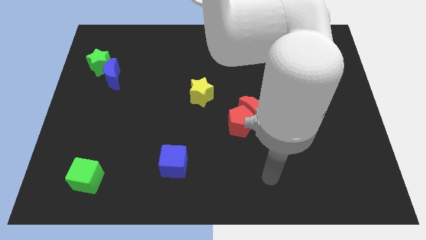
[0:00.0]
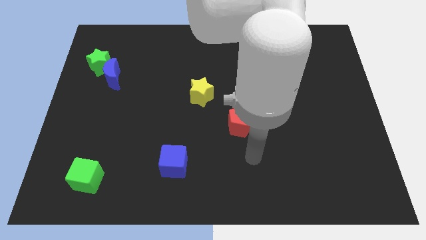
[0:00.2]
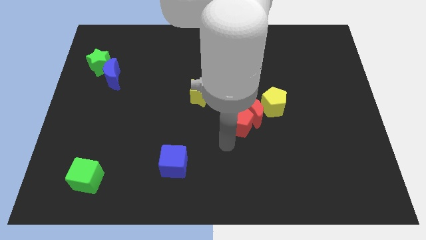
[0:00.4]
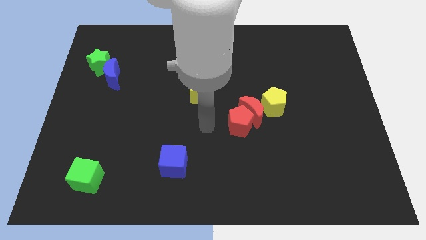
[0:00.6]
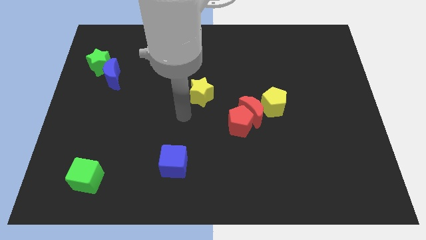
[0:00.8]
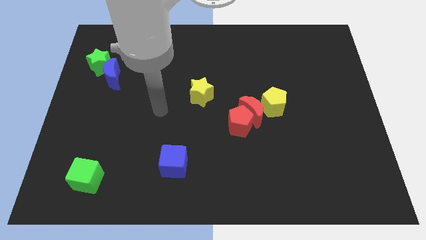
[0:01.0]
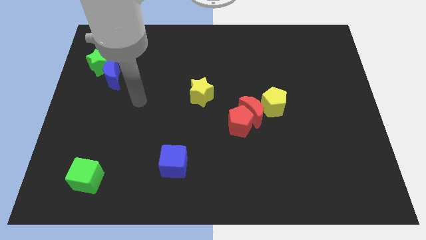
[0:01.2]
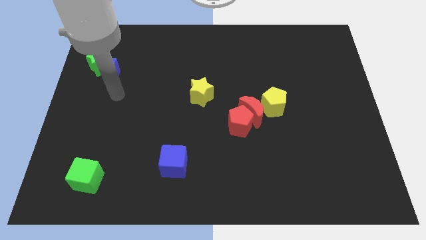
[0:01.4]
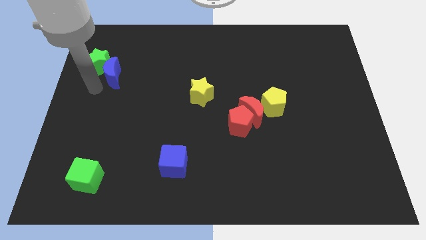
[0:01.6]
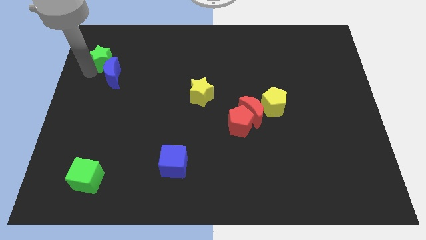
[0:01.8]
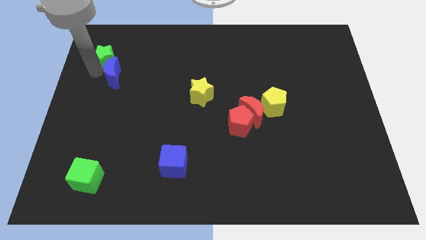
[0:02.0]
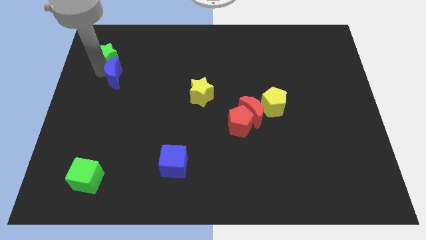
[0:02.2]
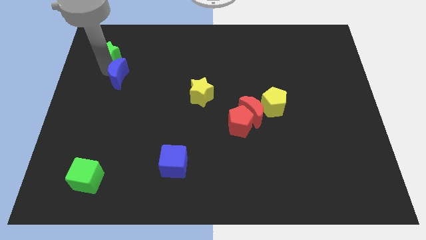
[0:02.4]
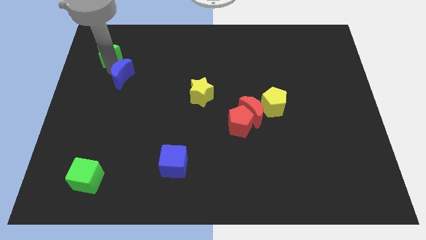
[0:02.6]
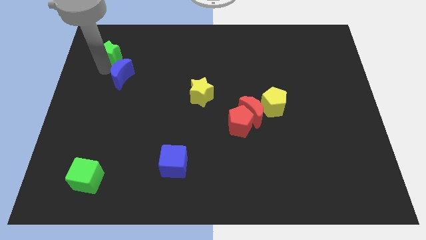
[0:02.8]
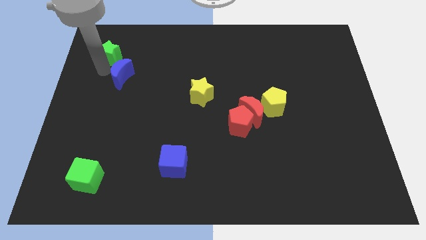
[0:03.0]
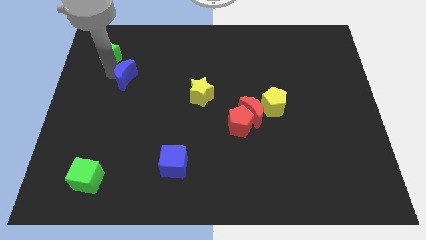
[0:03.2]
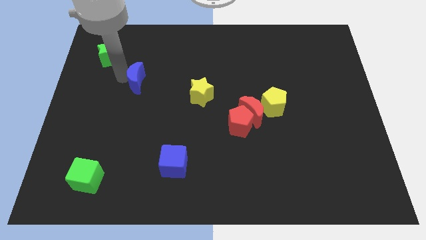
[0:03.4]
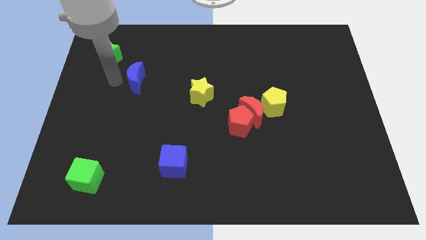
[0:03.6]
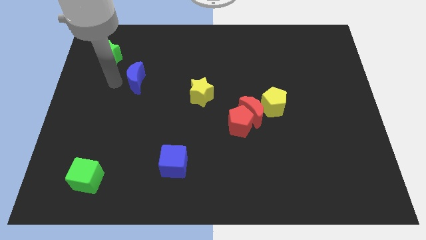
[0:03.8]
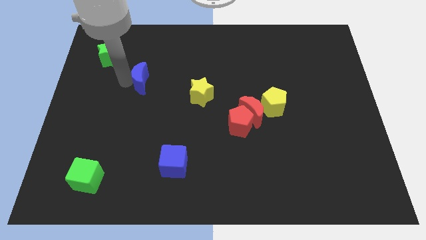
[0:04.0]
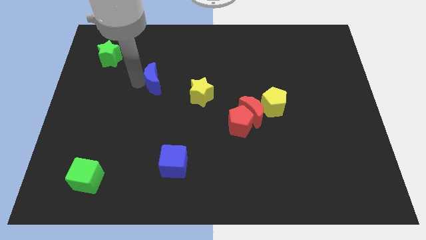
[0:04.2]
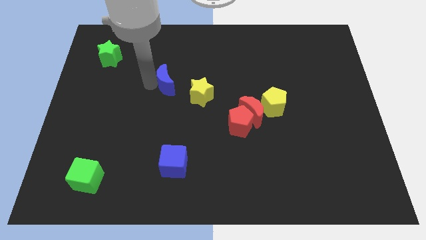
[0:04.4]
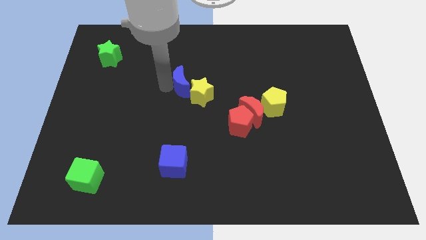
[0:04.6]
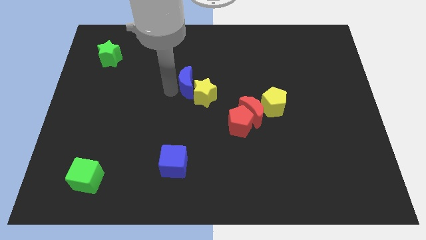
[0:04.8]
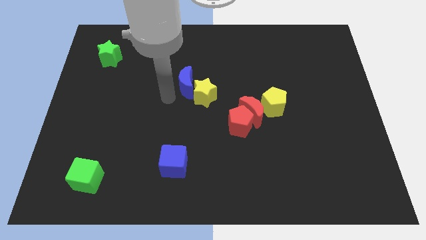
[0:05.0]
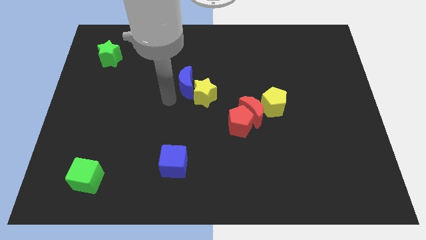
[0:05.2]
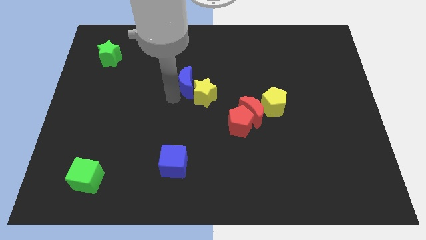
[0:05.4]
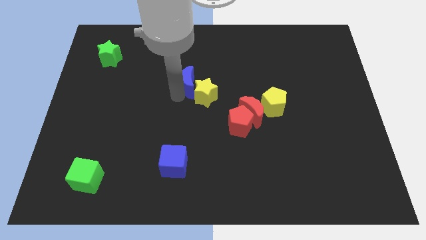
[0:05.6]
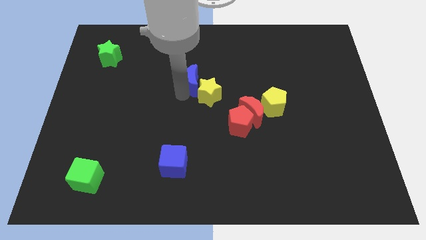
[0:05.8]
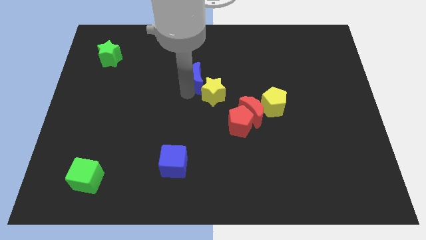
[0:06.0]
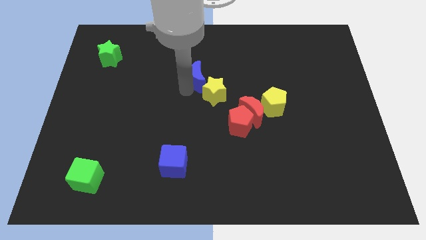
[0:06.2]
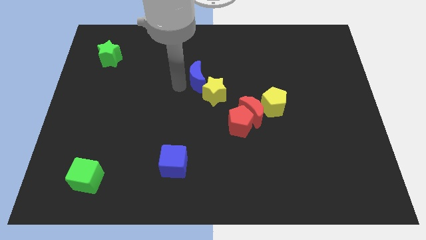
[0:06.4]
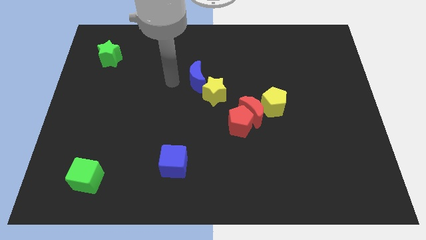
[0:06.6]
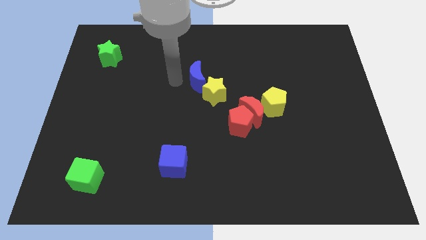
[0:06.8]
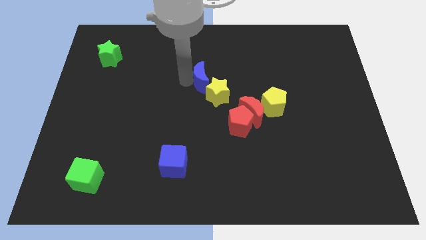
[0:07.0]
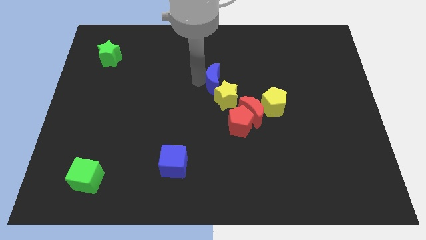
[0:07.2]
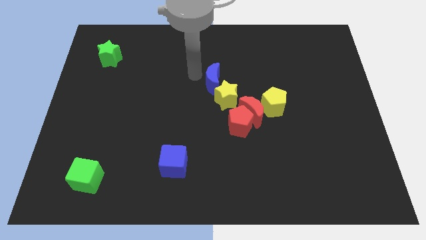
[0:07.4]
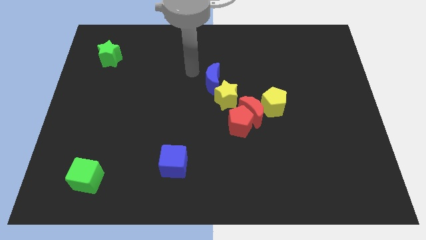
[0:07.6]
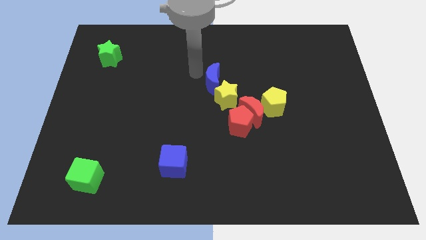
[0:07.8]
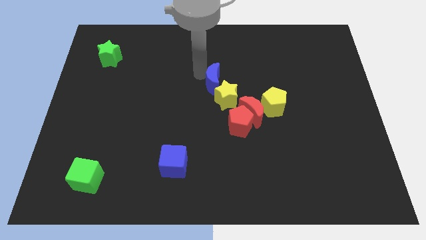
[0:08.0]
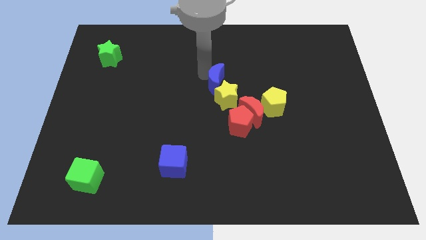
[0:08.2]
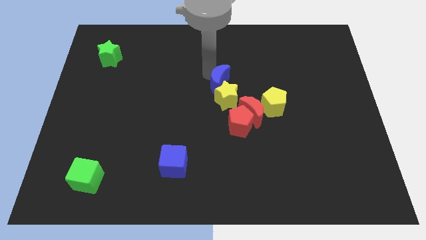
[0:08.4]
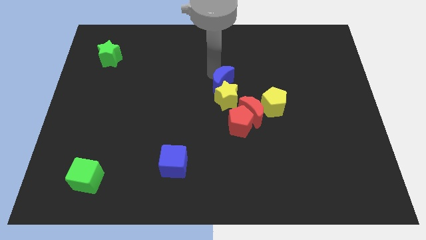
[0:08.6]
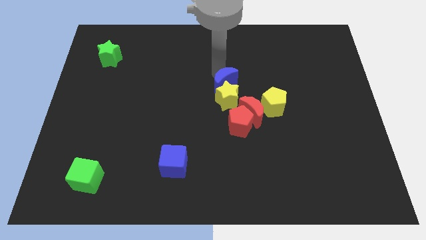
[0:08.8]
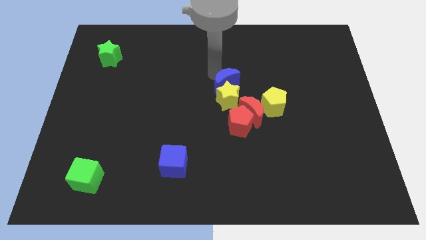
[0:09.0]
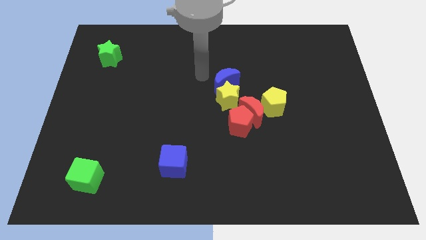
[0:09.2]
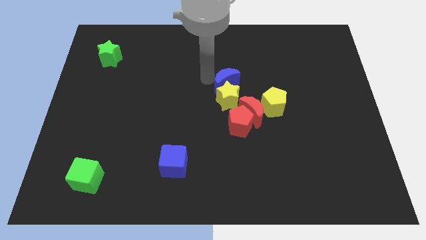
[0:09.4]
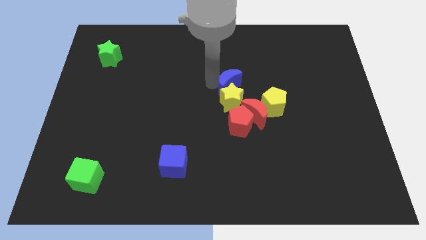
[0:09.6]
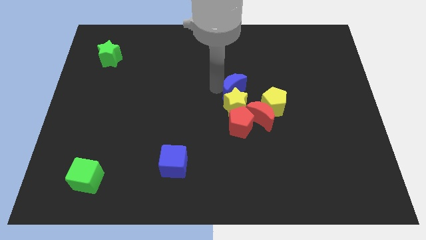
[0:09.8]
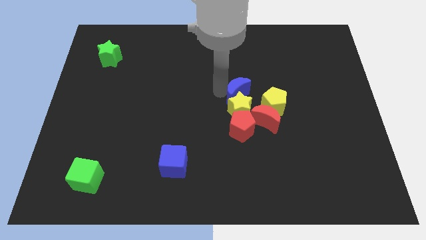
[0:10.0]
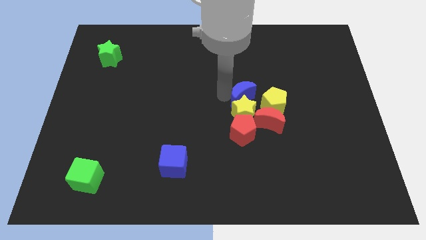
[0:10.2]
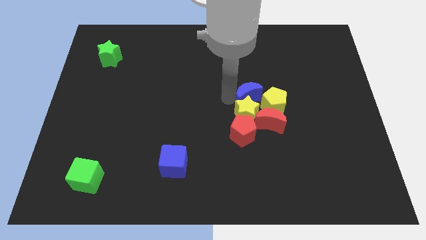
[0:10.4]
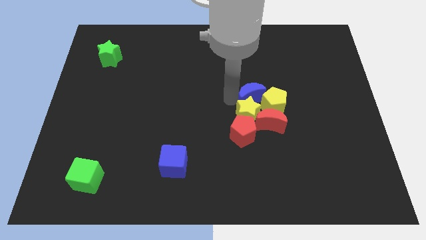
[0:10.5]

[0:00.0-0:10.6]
put the blue moon towards the yellow pentagon

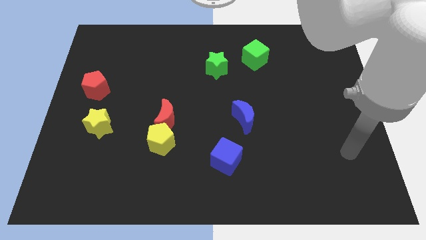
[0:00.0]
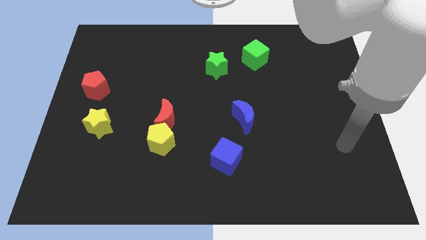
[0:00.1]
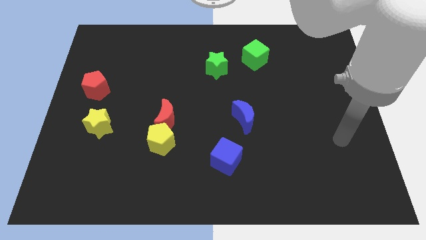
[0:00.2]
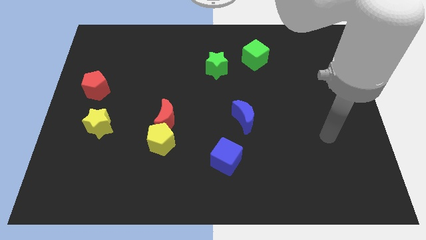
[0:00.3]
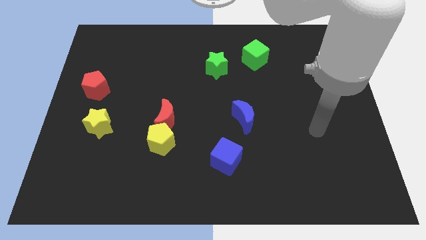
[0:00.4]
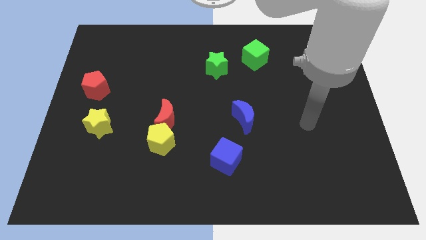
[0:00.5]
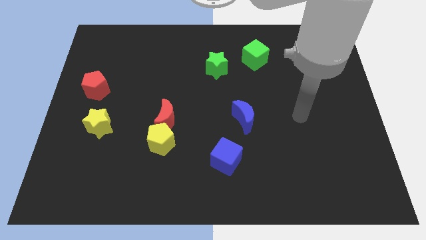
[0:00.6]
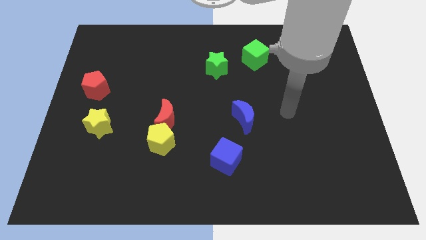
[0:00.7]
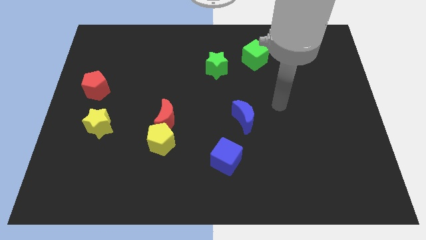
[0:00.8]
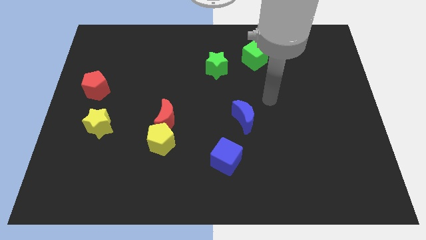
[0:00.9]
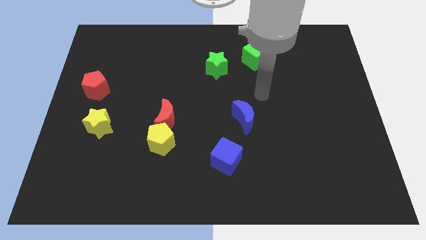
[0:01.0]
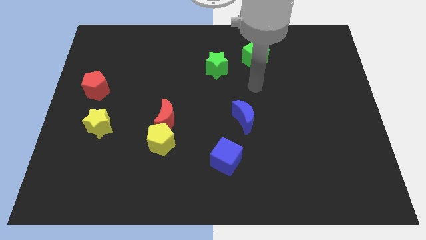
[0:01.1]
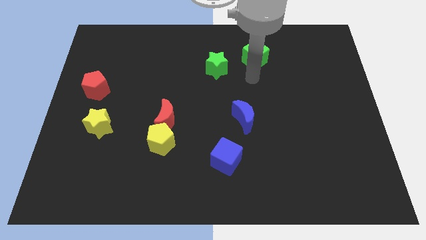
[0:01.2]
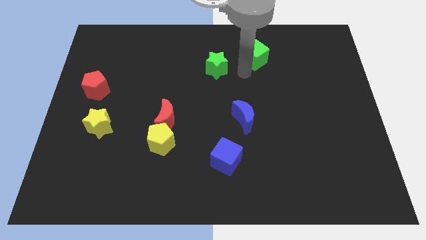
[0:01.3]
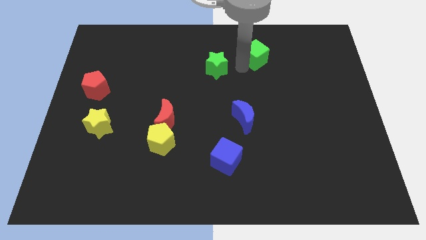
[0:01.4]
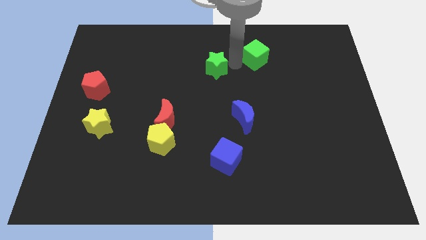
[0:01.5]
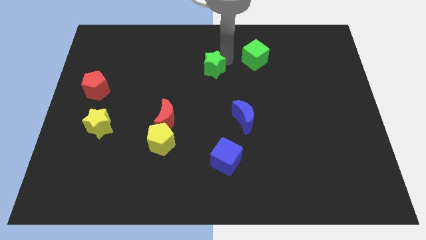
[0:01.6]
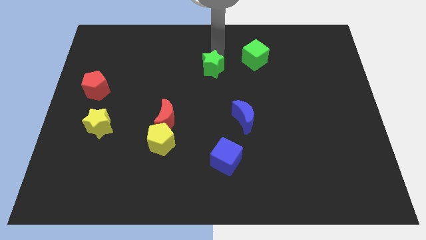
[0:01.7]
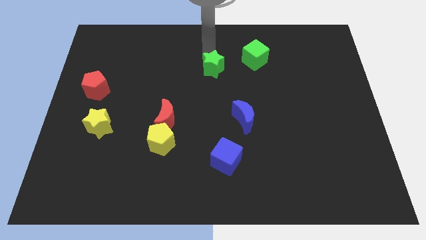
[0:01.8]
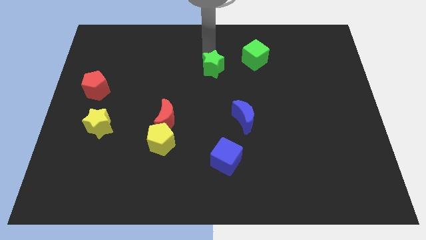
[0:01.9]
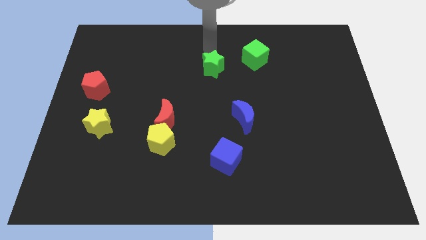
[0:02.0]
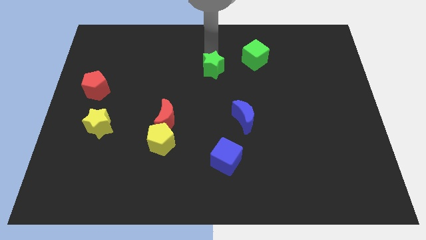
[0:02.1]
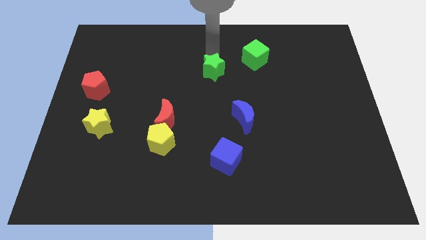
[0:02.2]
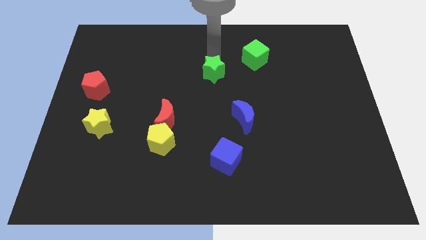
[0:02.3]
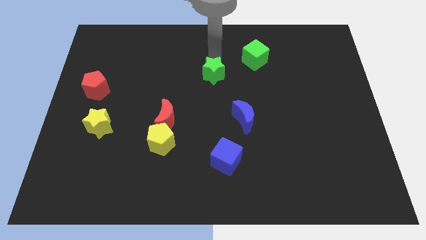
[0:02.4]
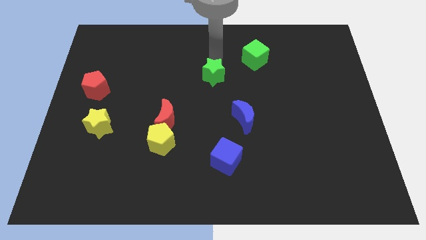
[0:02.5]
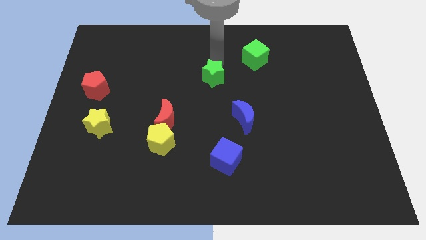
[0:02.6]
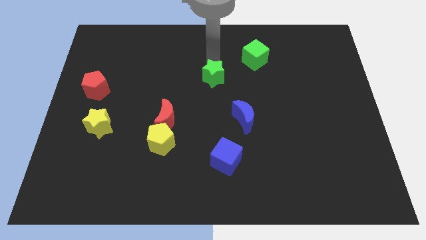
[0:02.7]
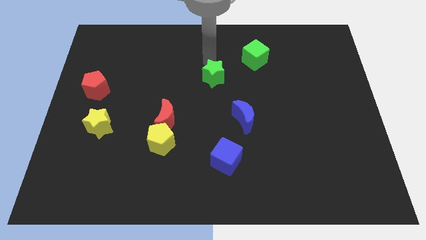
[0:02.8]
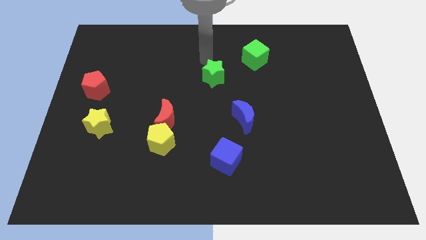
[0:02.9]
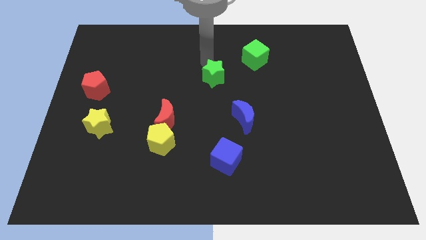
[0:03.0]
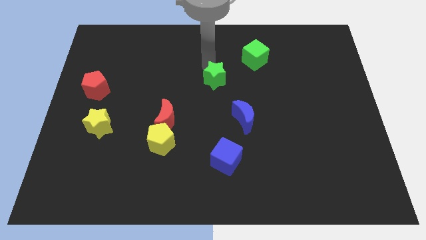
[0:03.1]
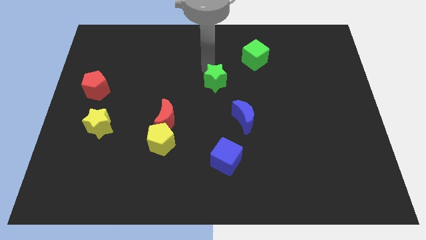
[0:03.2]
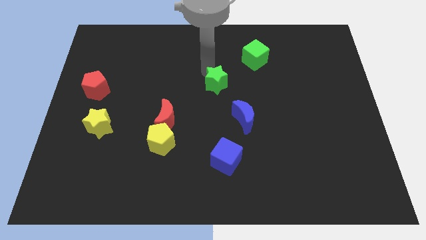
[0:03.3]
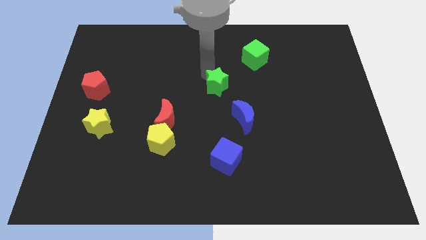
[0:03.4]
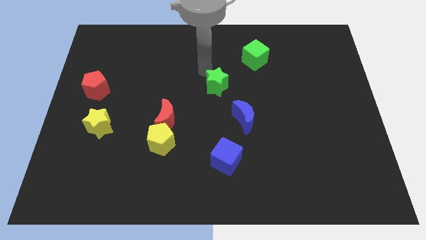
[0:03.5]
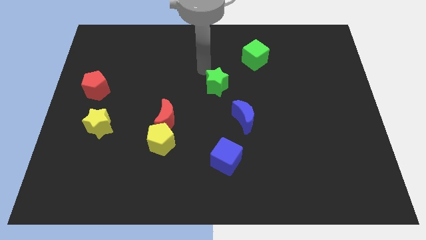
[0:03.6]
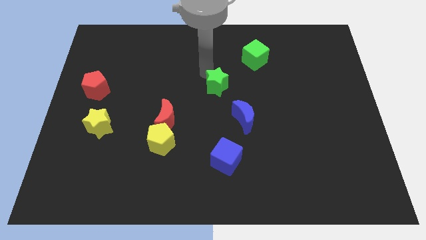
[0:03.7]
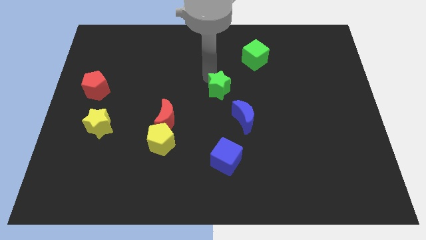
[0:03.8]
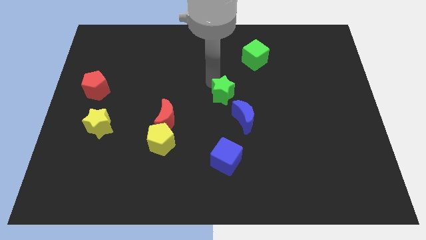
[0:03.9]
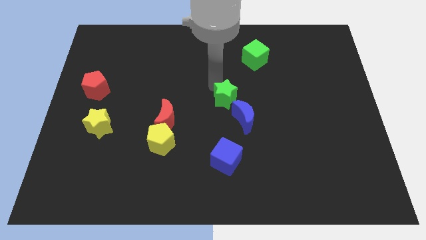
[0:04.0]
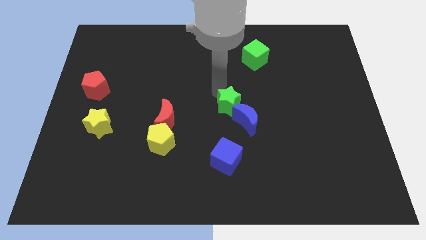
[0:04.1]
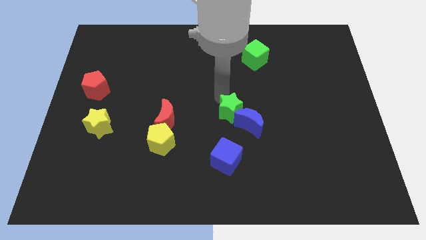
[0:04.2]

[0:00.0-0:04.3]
slide the green star next to the blue moon
